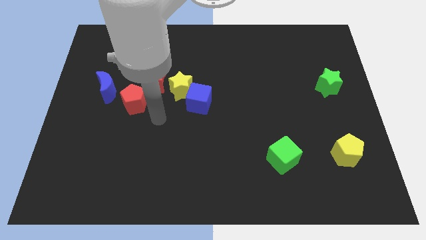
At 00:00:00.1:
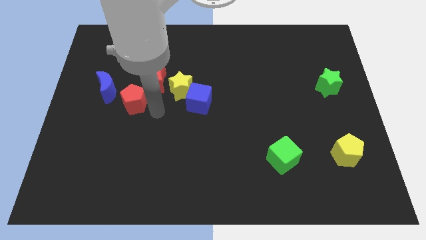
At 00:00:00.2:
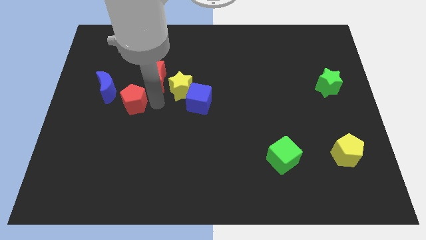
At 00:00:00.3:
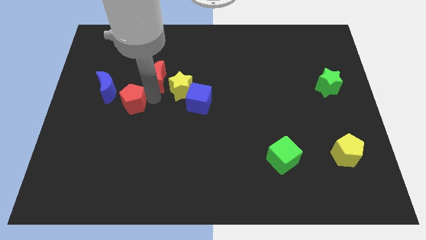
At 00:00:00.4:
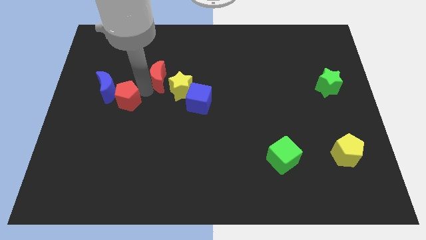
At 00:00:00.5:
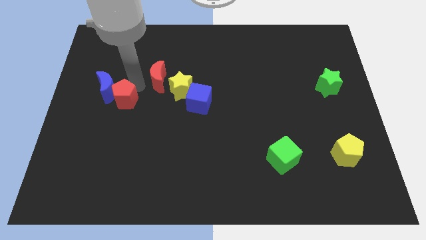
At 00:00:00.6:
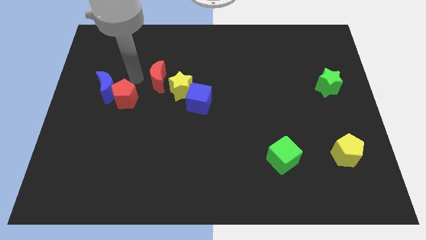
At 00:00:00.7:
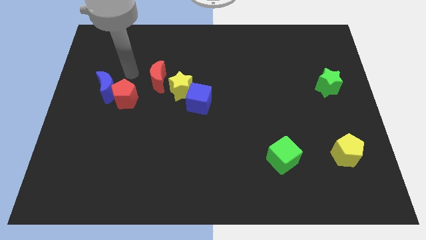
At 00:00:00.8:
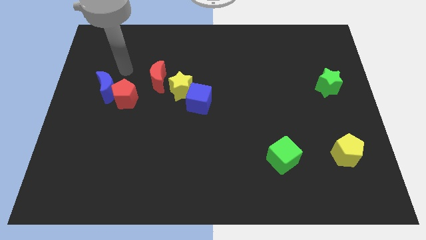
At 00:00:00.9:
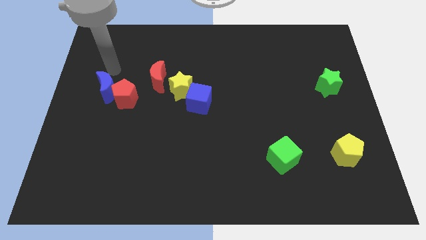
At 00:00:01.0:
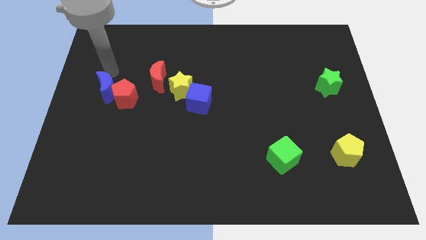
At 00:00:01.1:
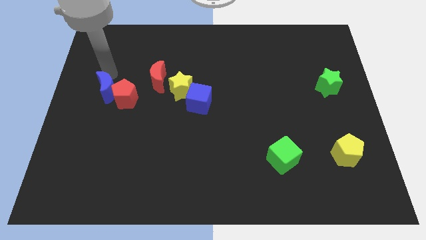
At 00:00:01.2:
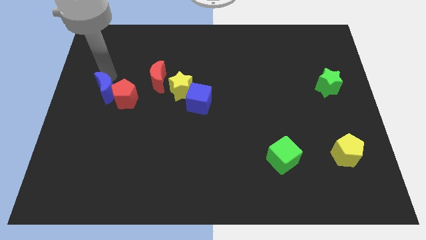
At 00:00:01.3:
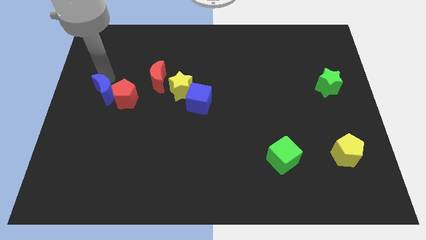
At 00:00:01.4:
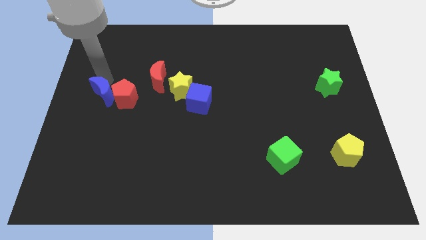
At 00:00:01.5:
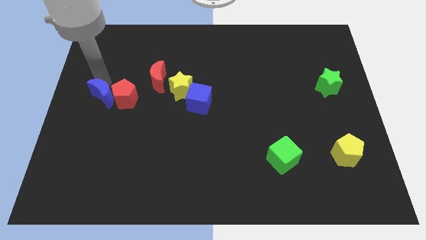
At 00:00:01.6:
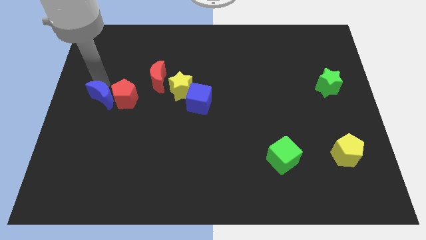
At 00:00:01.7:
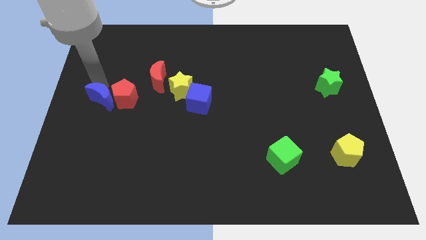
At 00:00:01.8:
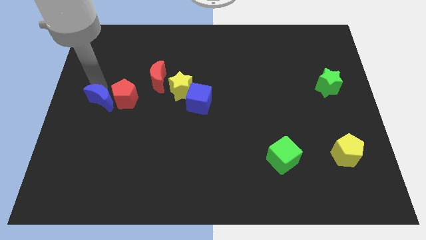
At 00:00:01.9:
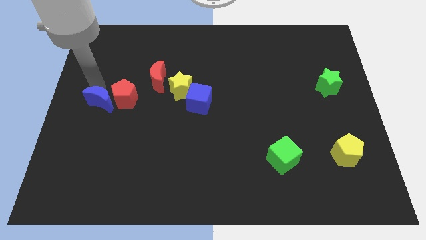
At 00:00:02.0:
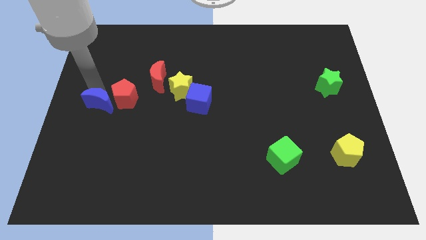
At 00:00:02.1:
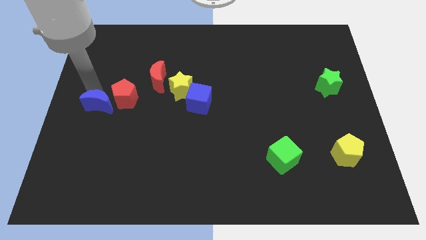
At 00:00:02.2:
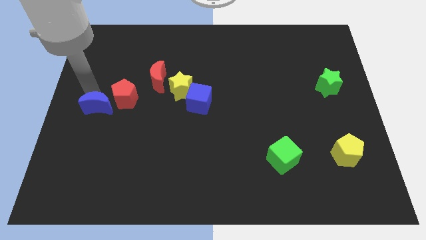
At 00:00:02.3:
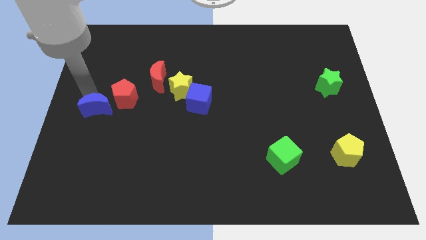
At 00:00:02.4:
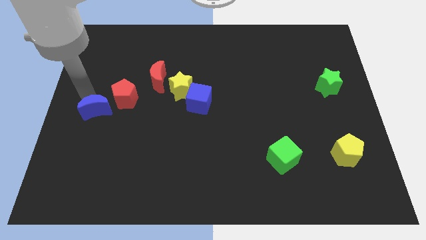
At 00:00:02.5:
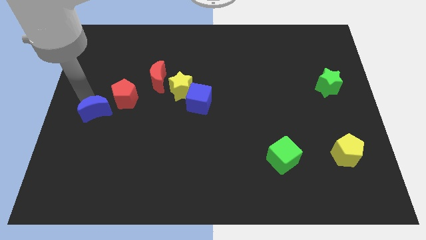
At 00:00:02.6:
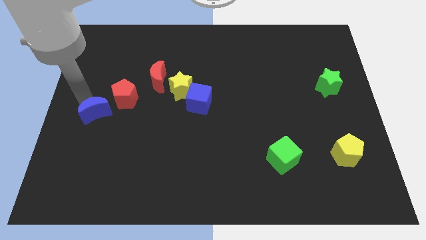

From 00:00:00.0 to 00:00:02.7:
push the blue moon a little downwards

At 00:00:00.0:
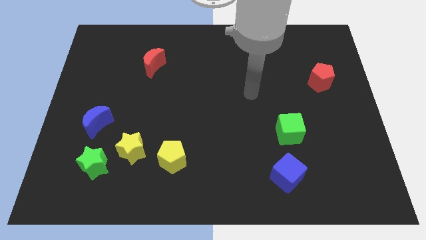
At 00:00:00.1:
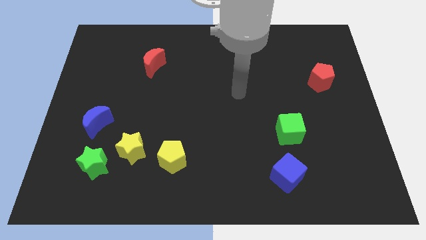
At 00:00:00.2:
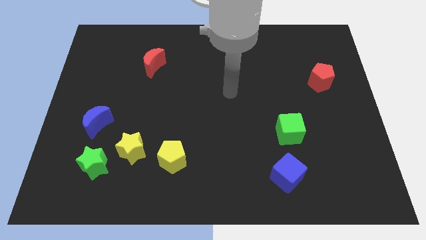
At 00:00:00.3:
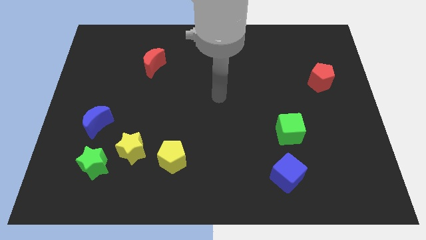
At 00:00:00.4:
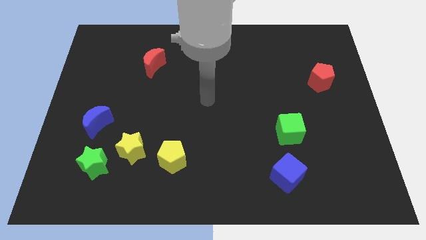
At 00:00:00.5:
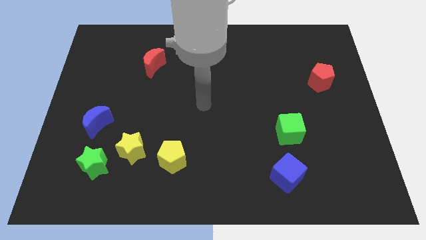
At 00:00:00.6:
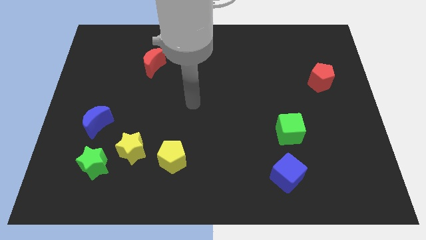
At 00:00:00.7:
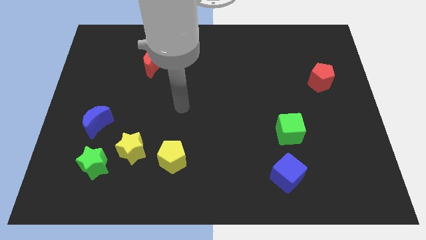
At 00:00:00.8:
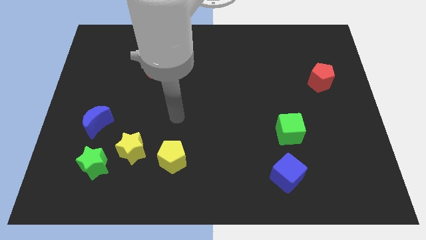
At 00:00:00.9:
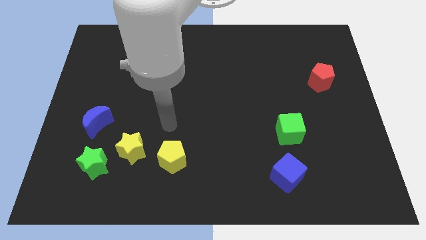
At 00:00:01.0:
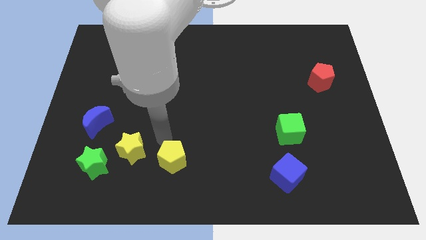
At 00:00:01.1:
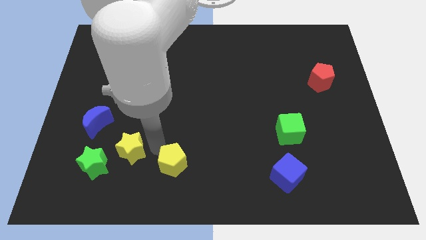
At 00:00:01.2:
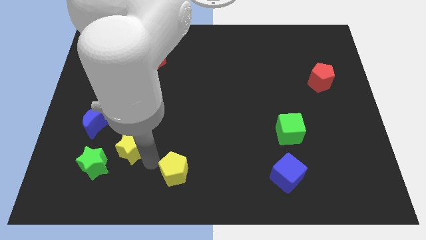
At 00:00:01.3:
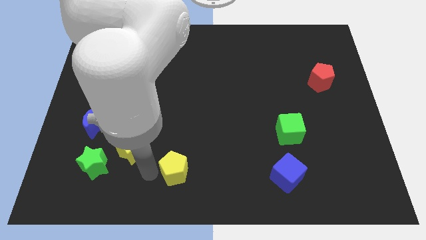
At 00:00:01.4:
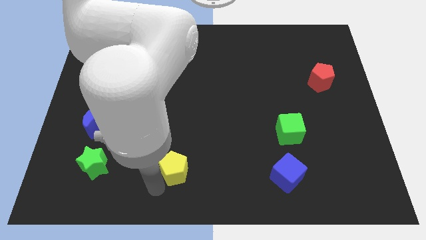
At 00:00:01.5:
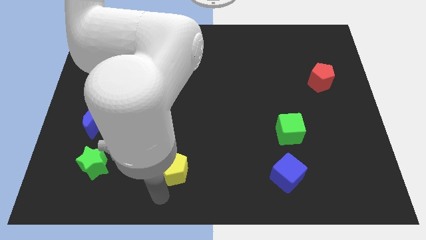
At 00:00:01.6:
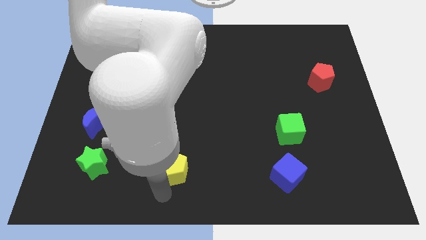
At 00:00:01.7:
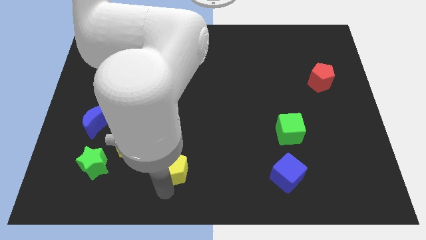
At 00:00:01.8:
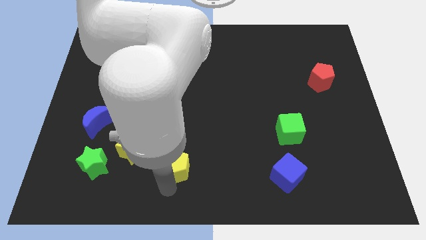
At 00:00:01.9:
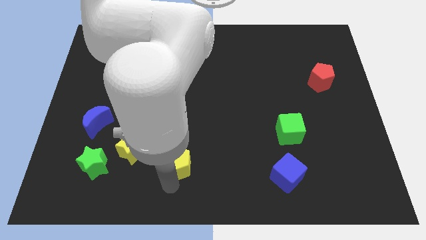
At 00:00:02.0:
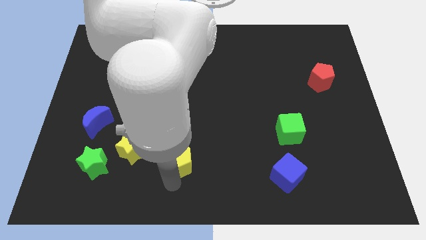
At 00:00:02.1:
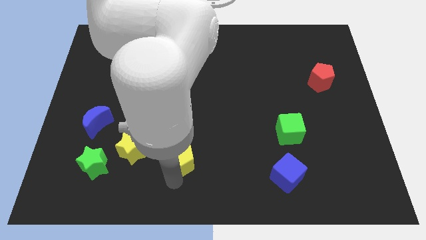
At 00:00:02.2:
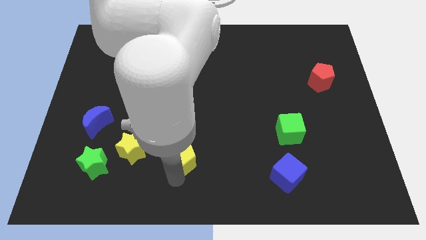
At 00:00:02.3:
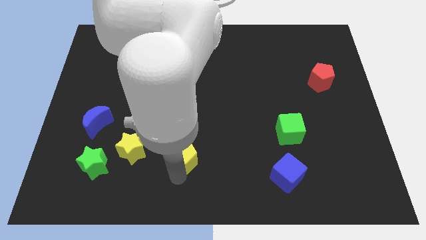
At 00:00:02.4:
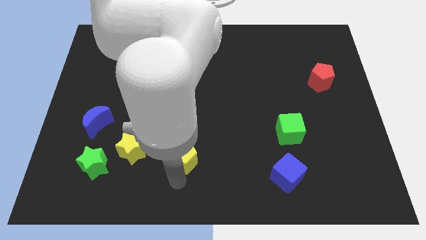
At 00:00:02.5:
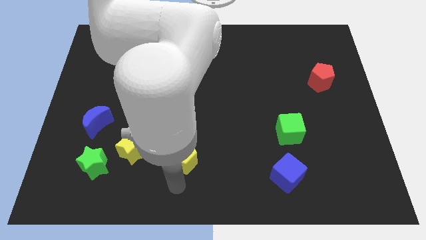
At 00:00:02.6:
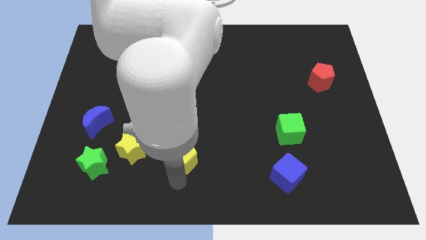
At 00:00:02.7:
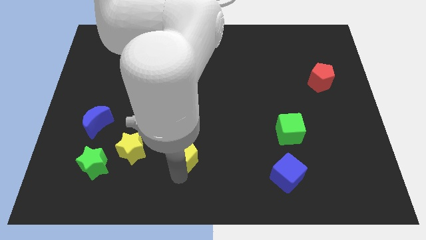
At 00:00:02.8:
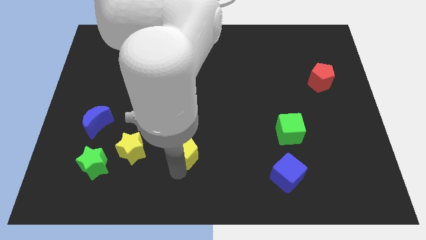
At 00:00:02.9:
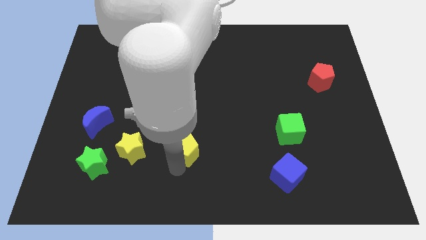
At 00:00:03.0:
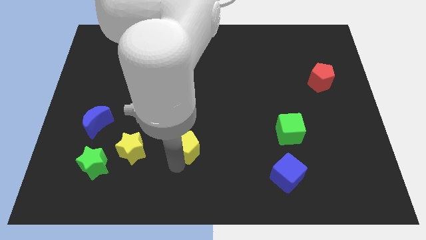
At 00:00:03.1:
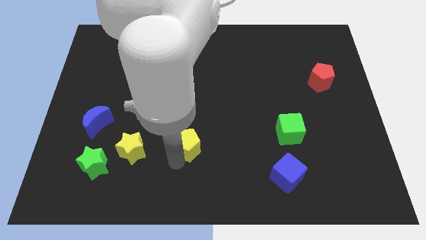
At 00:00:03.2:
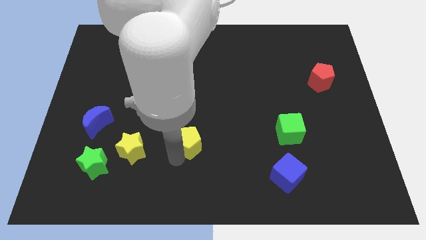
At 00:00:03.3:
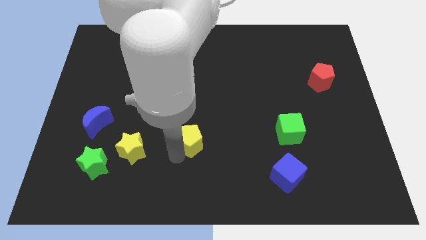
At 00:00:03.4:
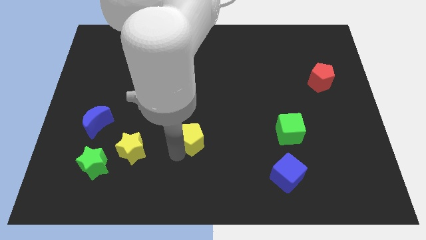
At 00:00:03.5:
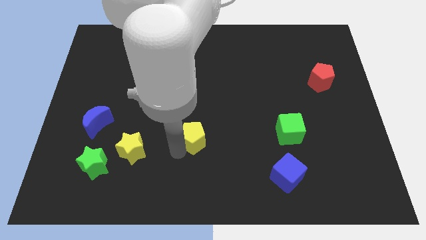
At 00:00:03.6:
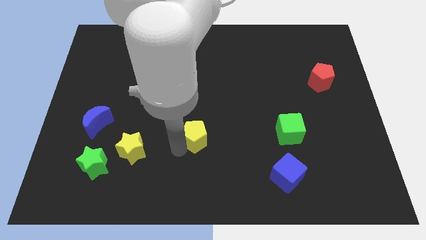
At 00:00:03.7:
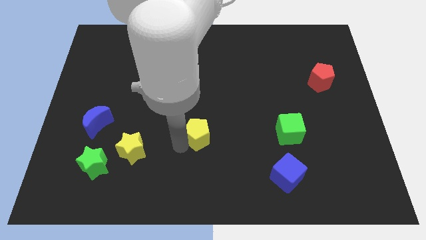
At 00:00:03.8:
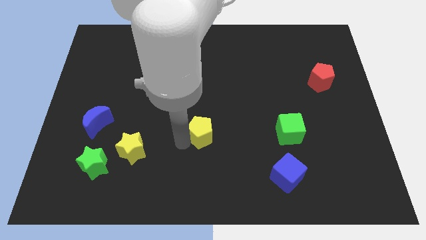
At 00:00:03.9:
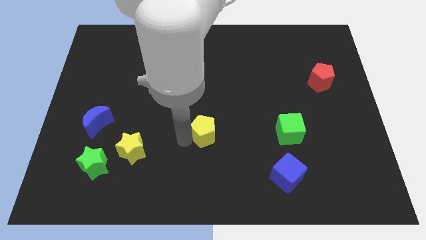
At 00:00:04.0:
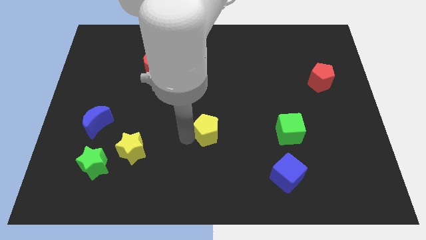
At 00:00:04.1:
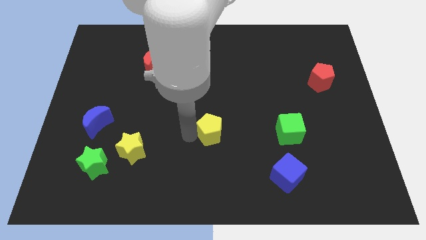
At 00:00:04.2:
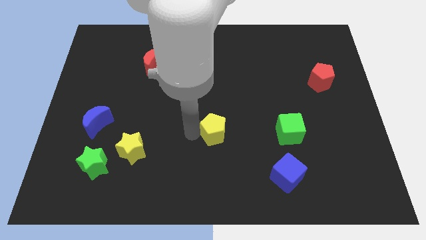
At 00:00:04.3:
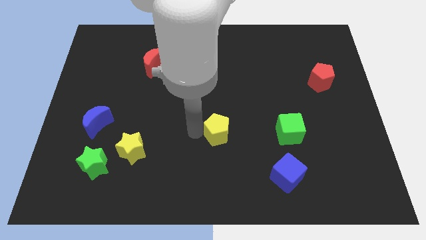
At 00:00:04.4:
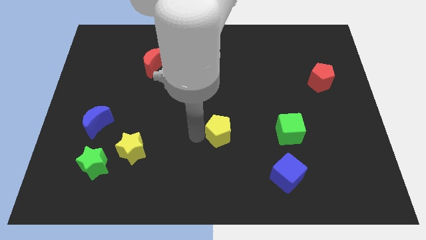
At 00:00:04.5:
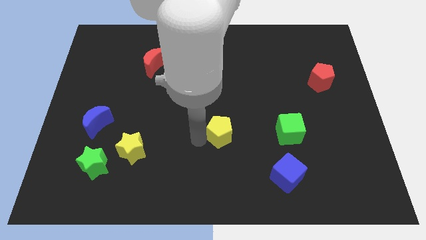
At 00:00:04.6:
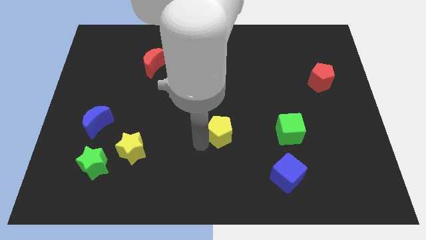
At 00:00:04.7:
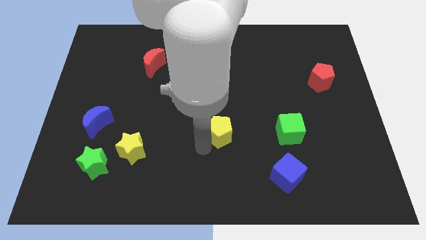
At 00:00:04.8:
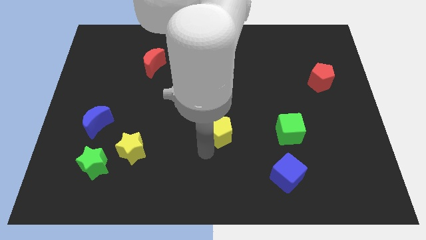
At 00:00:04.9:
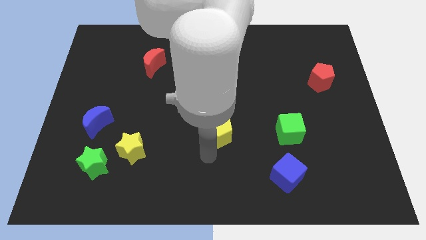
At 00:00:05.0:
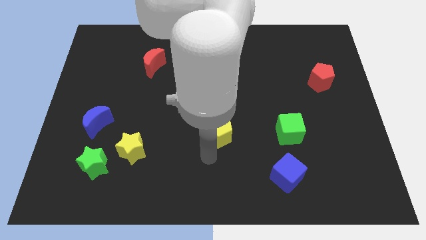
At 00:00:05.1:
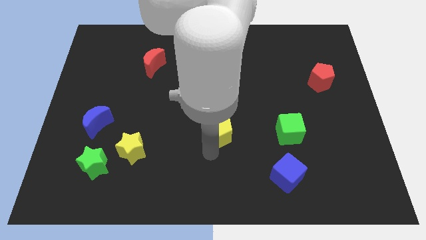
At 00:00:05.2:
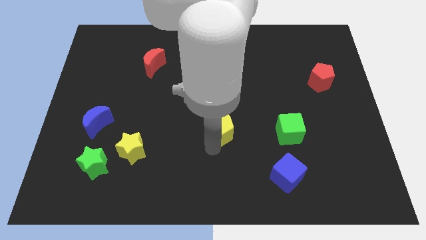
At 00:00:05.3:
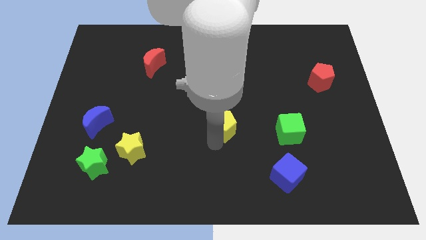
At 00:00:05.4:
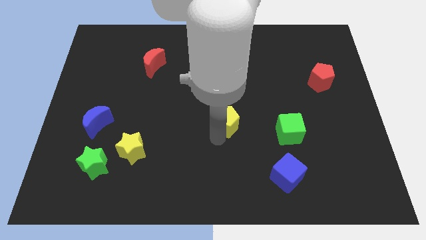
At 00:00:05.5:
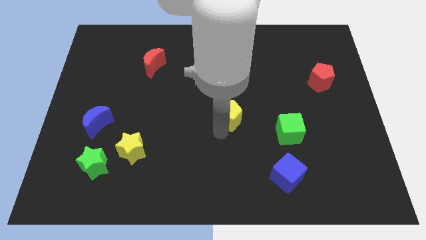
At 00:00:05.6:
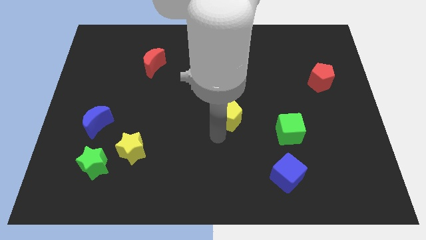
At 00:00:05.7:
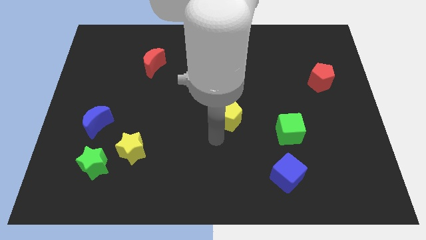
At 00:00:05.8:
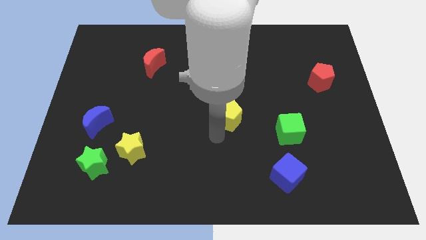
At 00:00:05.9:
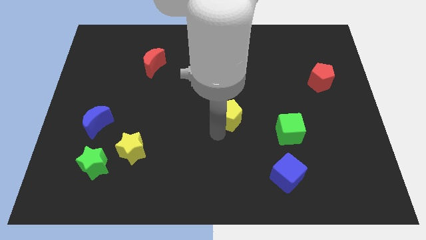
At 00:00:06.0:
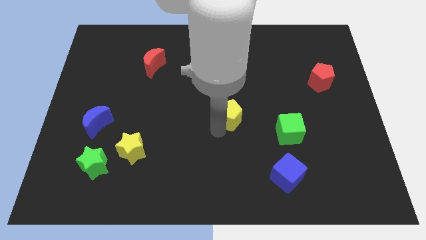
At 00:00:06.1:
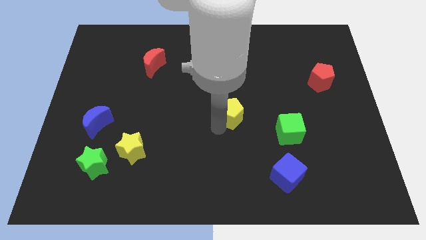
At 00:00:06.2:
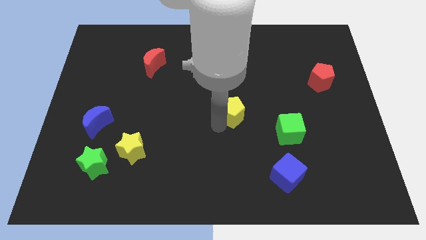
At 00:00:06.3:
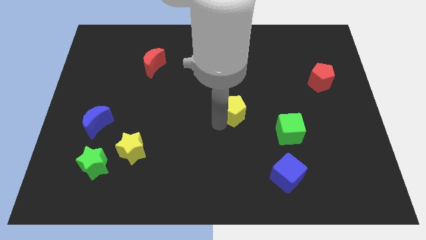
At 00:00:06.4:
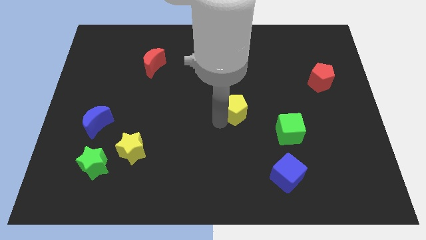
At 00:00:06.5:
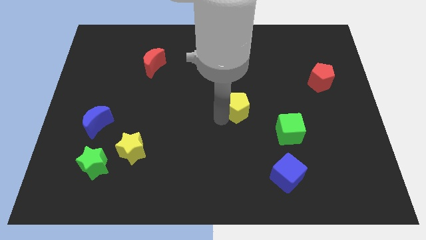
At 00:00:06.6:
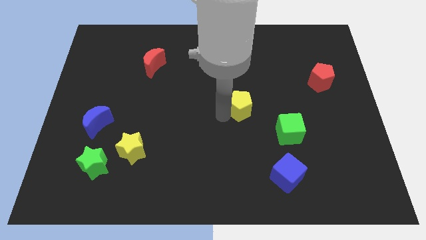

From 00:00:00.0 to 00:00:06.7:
move the yellow pentagon diagonally upwards and to the right
